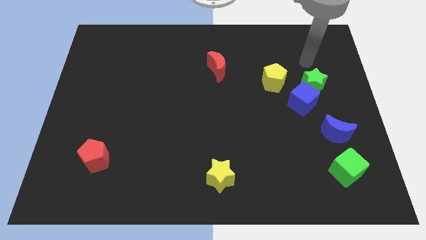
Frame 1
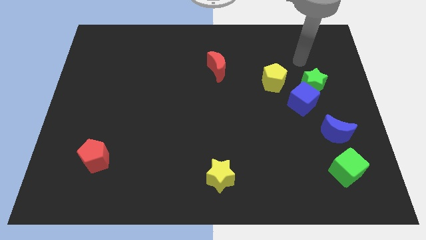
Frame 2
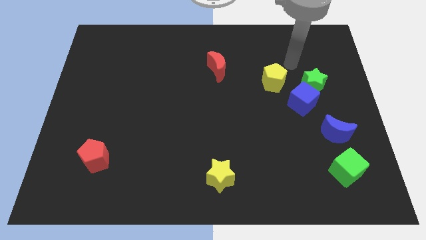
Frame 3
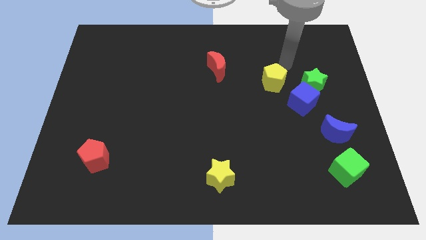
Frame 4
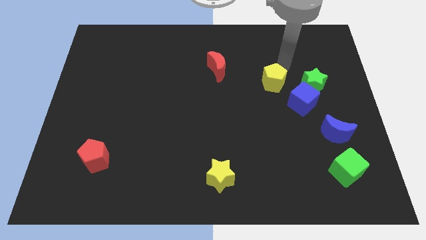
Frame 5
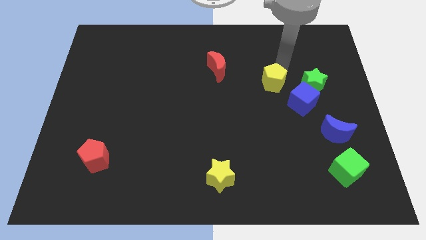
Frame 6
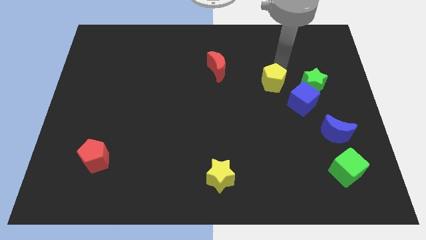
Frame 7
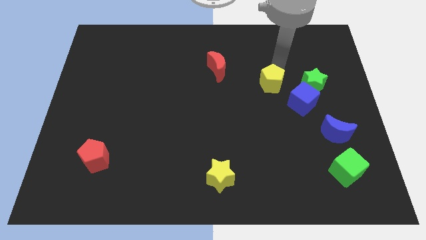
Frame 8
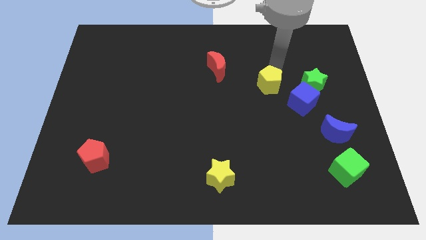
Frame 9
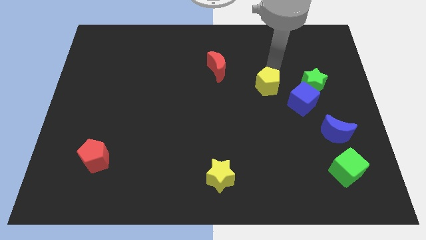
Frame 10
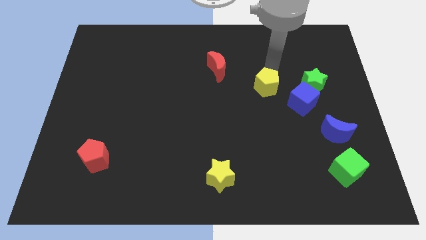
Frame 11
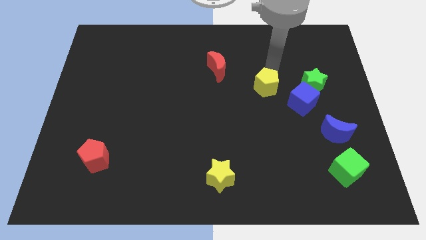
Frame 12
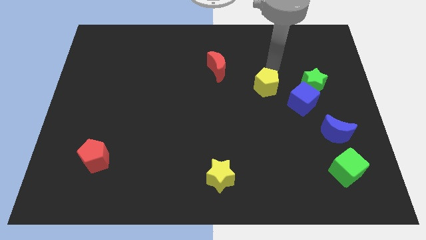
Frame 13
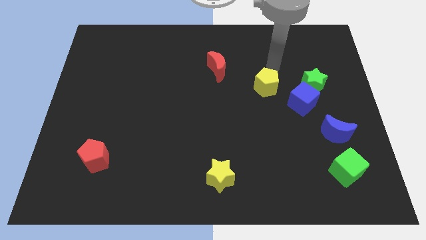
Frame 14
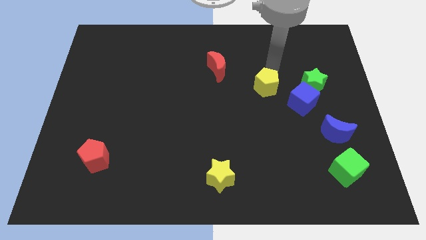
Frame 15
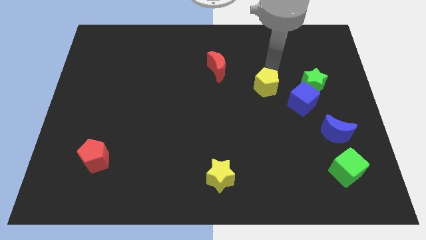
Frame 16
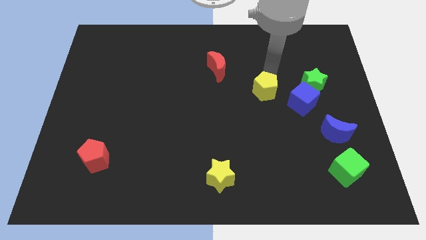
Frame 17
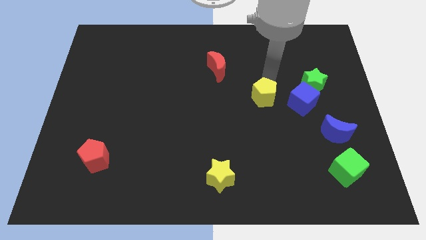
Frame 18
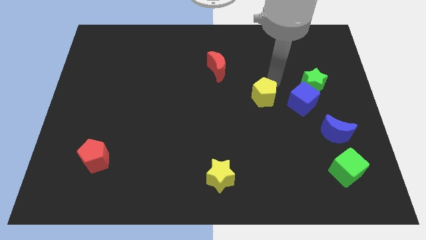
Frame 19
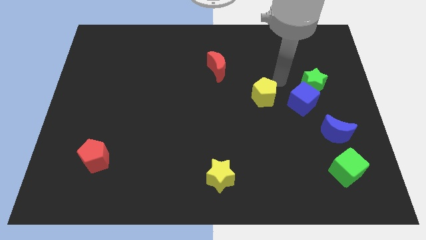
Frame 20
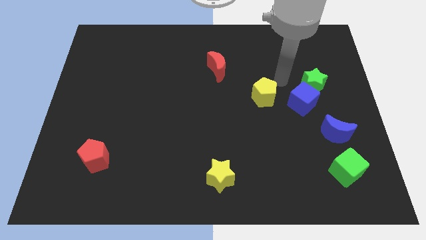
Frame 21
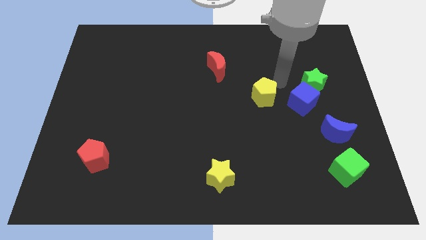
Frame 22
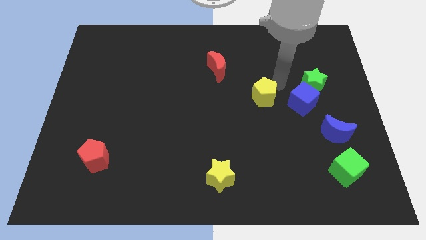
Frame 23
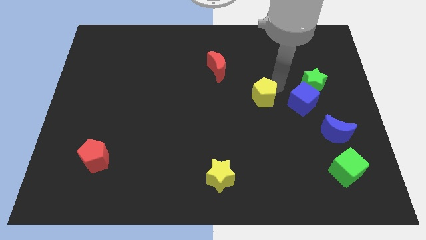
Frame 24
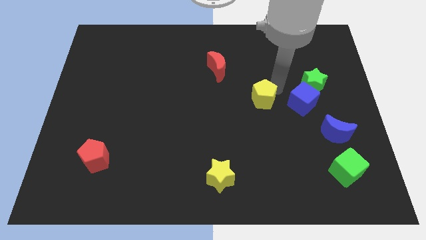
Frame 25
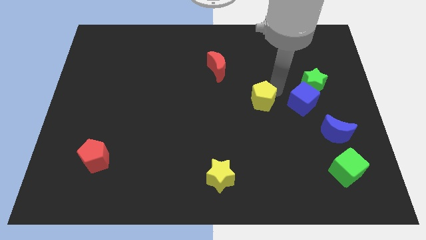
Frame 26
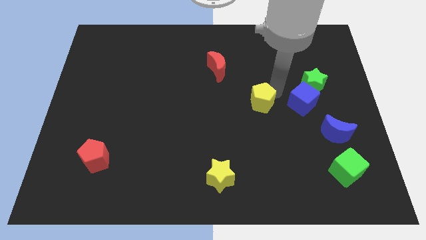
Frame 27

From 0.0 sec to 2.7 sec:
move the yellow pentagon slightly down and then left

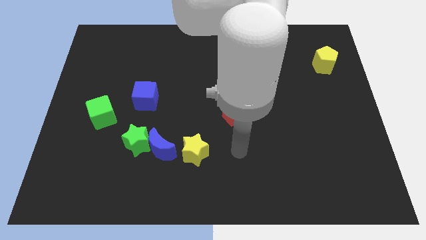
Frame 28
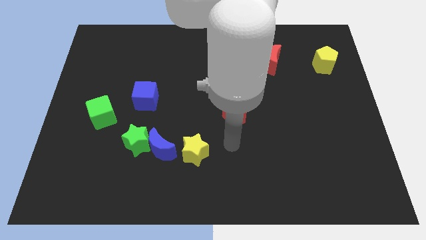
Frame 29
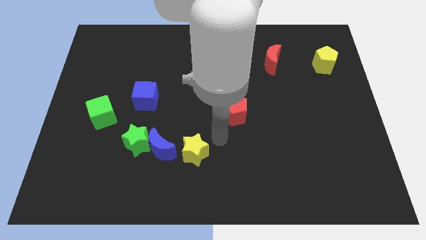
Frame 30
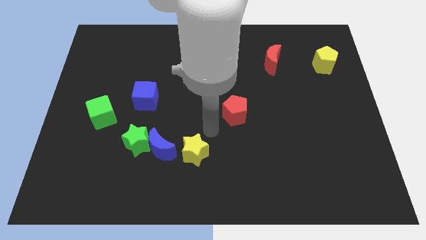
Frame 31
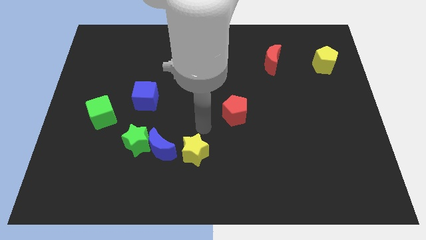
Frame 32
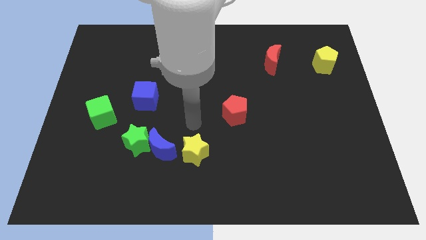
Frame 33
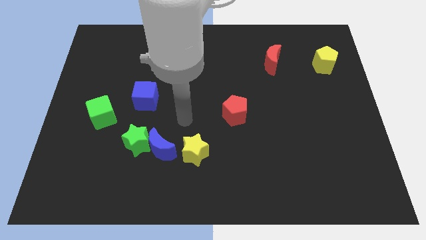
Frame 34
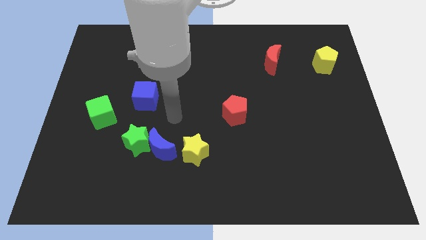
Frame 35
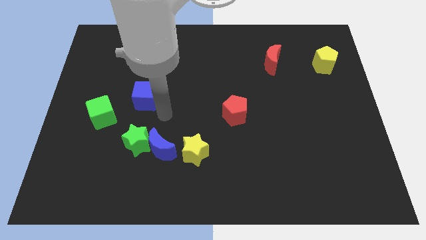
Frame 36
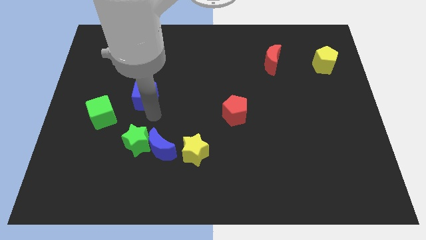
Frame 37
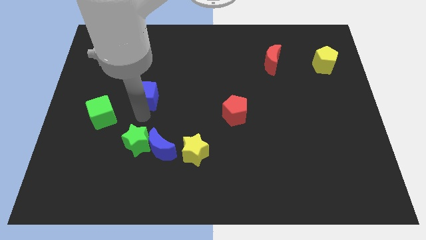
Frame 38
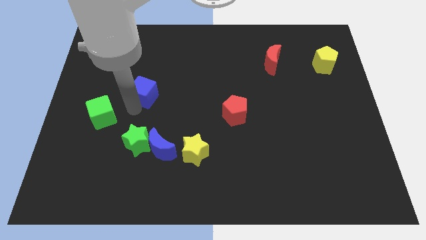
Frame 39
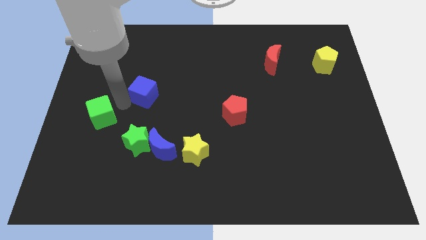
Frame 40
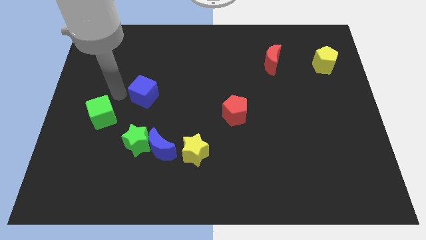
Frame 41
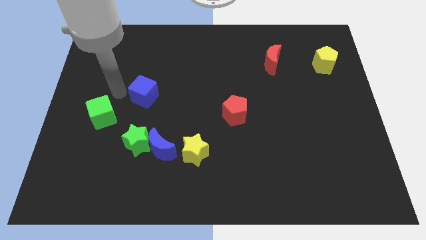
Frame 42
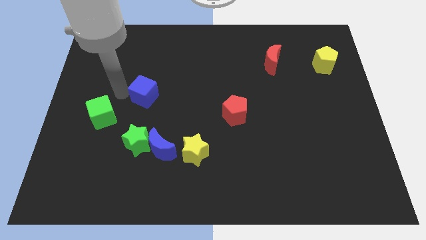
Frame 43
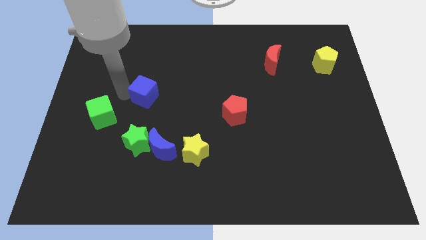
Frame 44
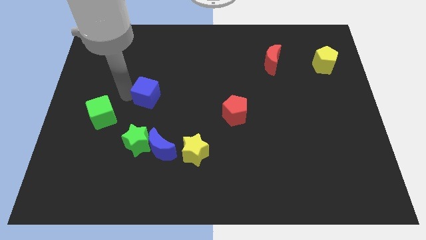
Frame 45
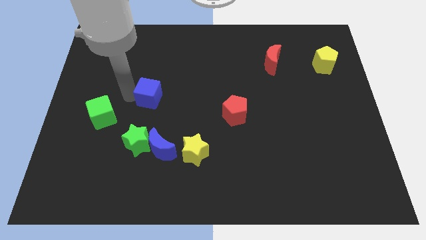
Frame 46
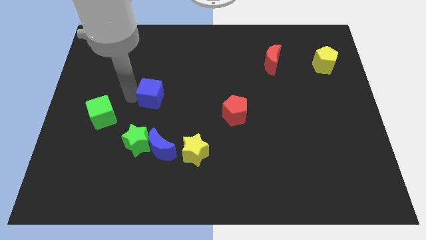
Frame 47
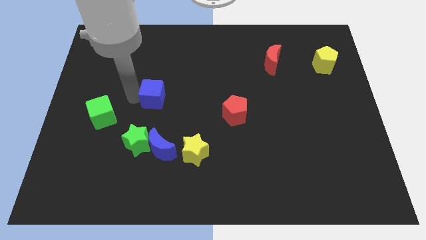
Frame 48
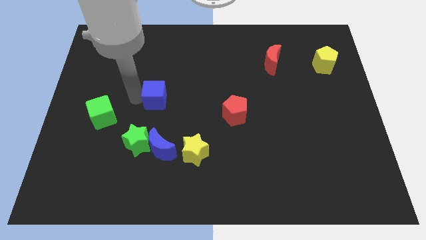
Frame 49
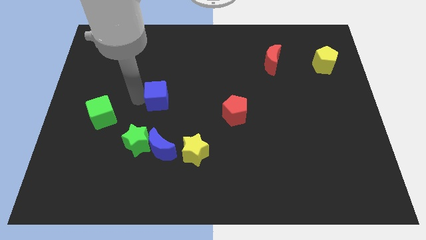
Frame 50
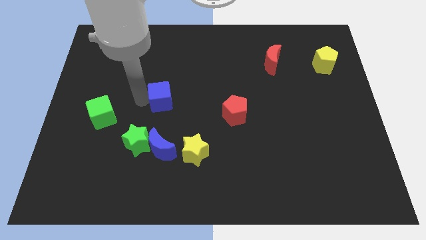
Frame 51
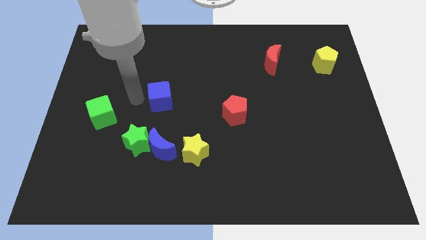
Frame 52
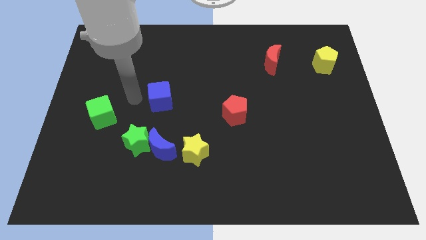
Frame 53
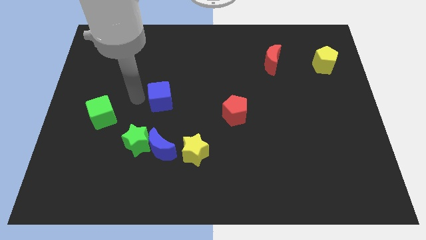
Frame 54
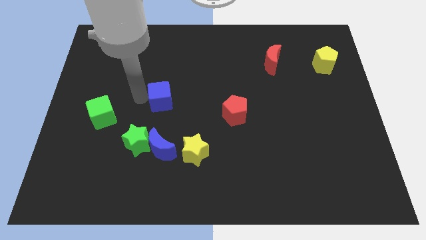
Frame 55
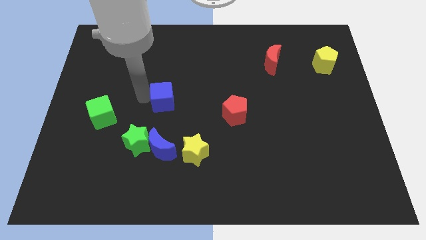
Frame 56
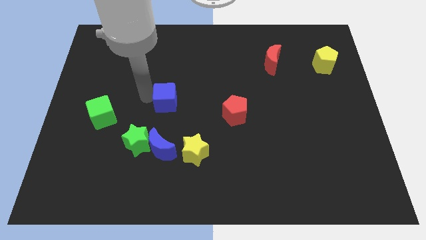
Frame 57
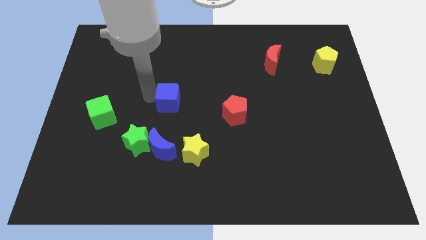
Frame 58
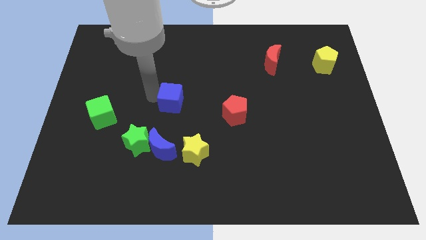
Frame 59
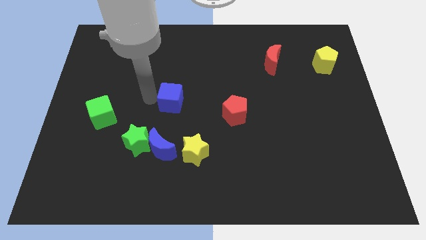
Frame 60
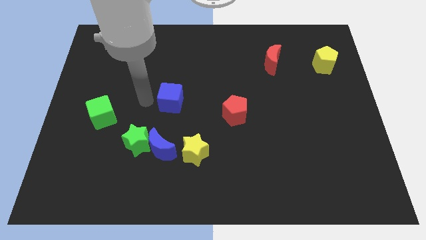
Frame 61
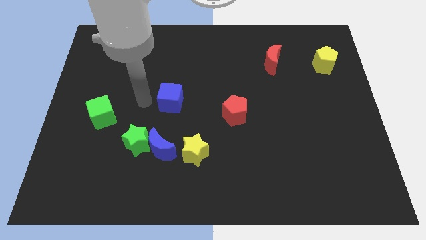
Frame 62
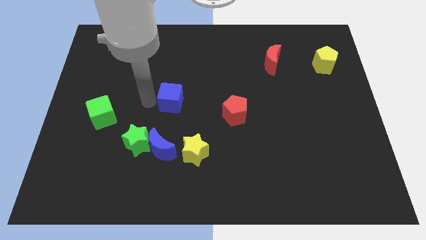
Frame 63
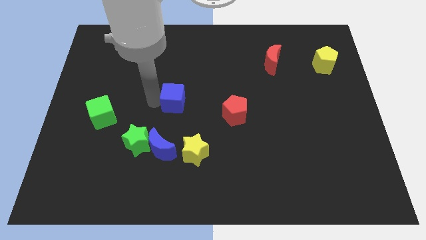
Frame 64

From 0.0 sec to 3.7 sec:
push the blue cube right a bit

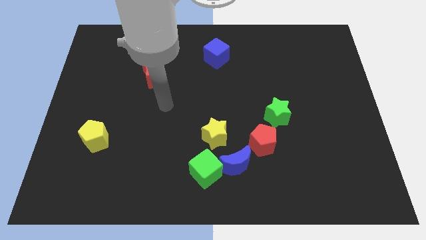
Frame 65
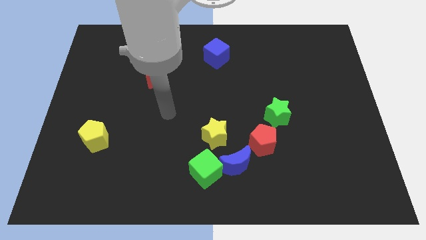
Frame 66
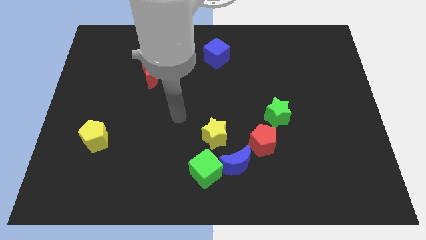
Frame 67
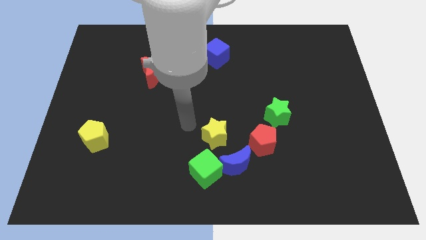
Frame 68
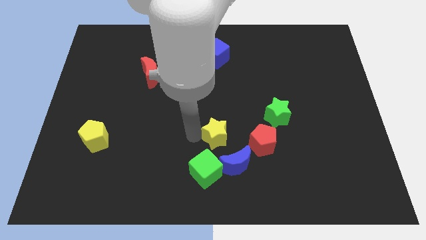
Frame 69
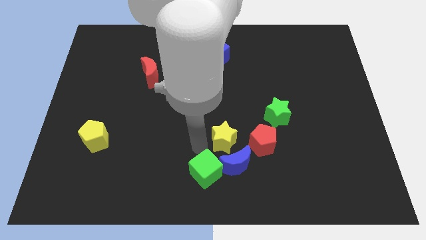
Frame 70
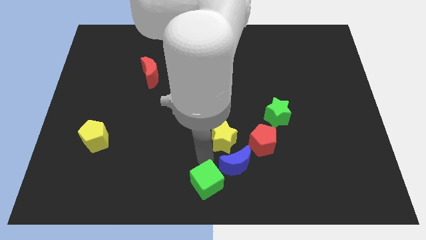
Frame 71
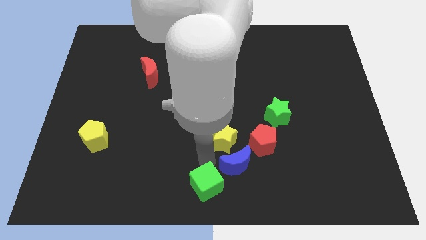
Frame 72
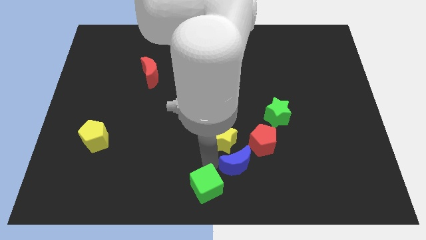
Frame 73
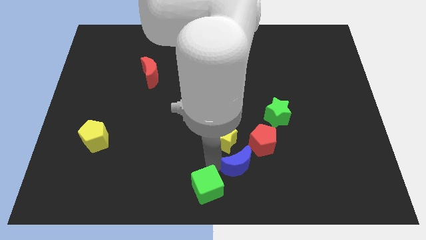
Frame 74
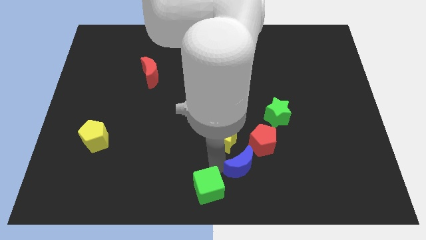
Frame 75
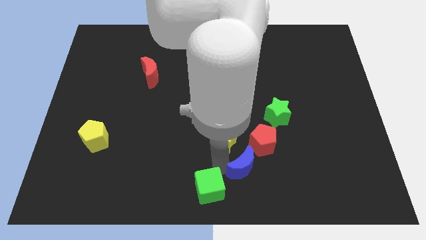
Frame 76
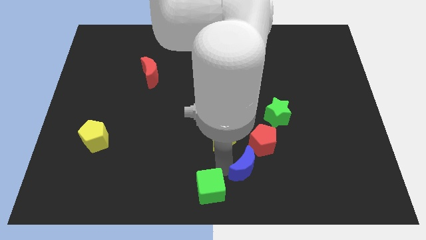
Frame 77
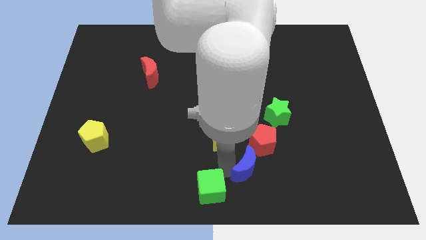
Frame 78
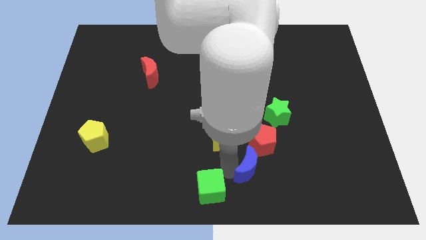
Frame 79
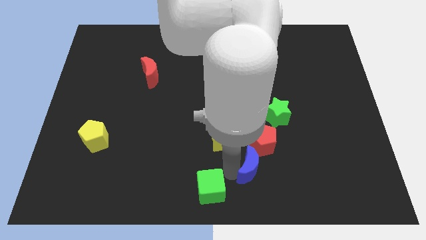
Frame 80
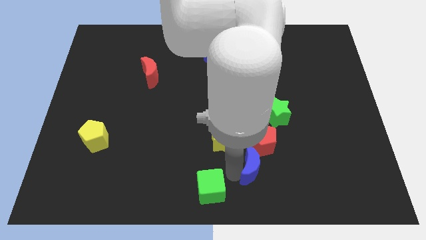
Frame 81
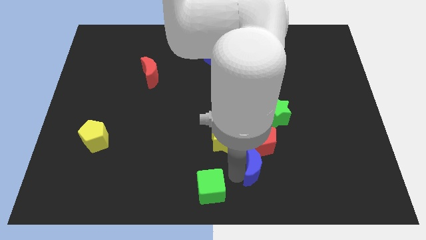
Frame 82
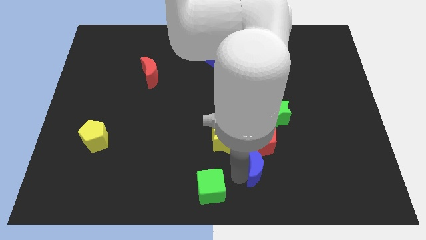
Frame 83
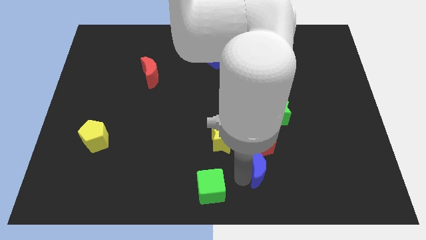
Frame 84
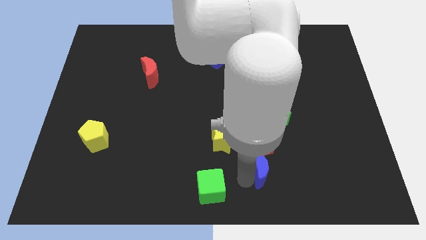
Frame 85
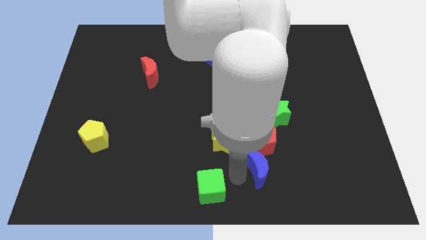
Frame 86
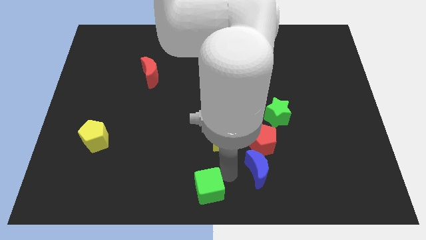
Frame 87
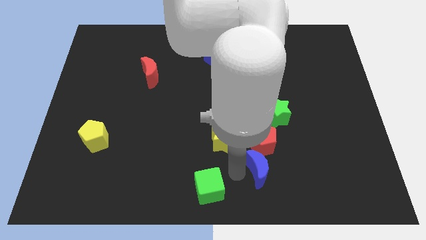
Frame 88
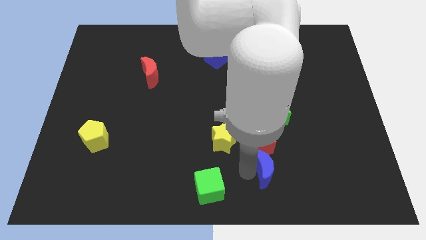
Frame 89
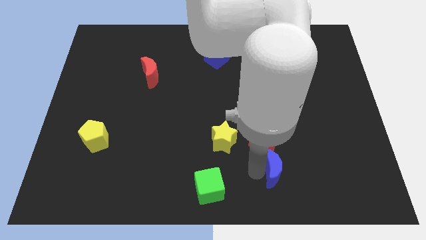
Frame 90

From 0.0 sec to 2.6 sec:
slightly push the blue moon right
